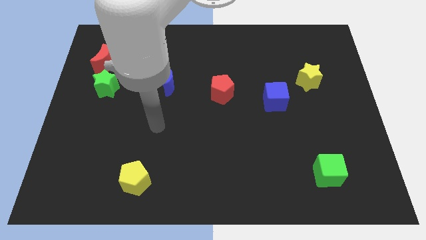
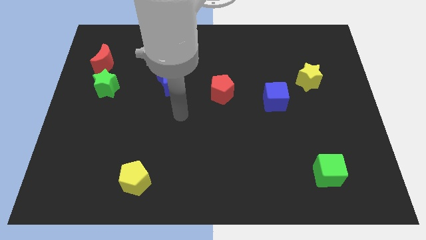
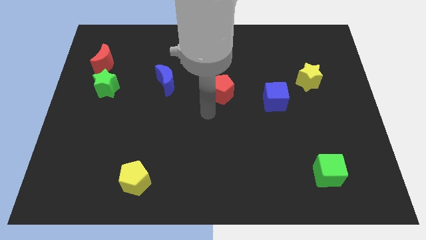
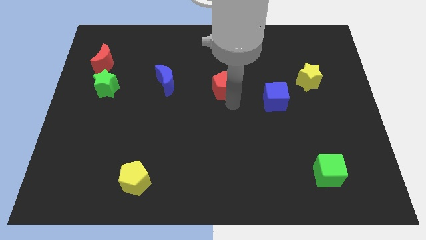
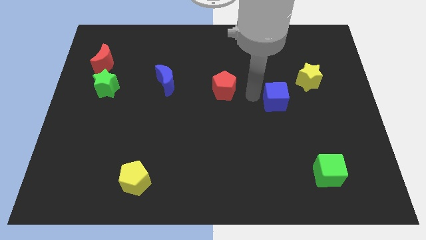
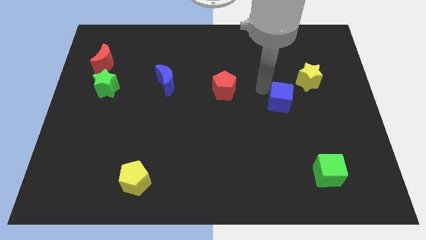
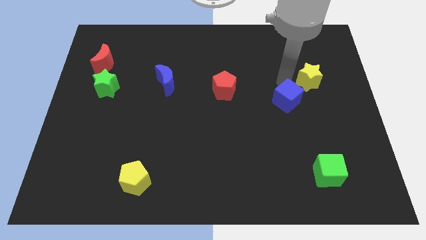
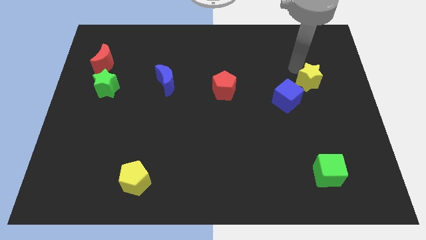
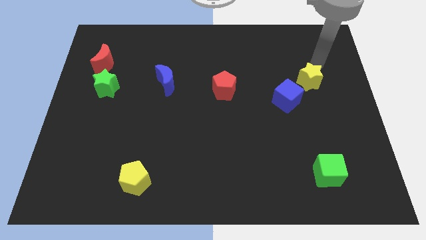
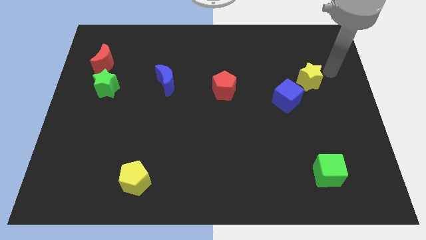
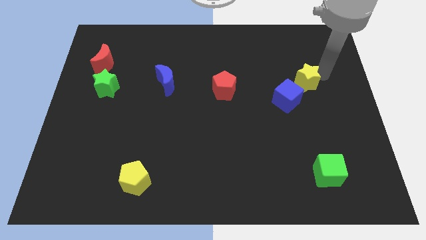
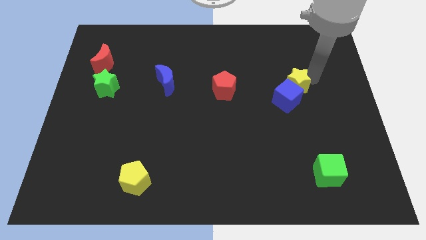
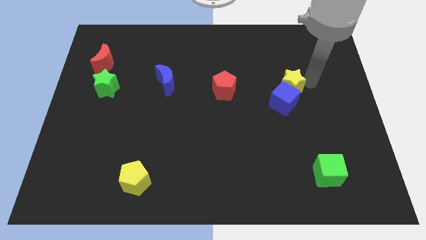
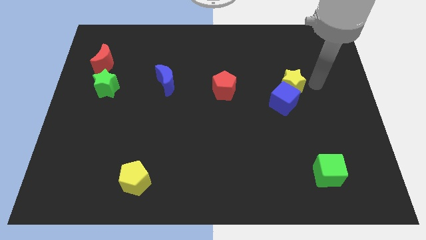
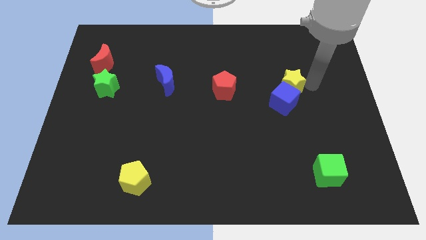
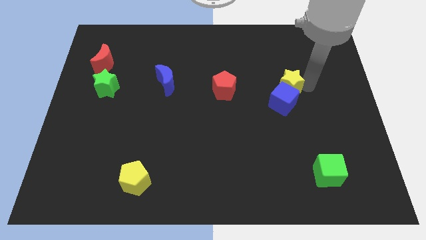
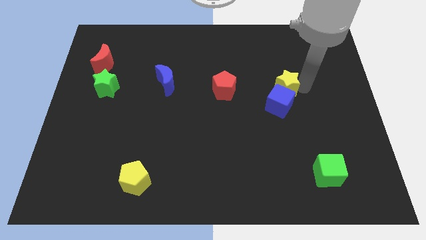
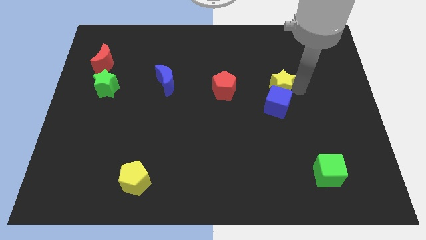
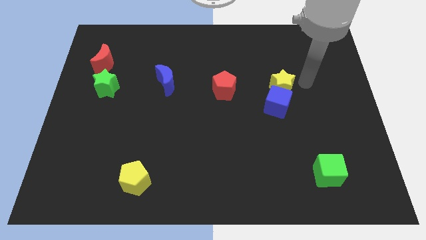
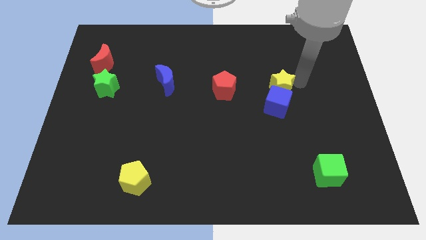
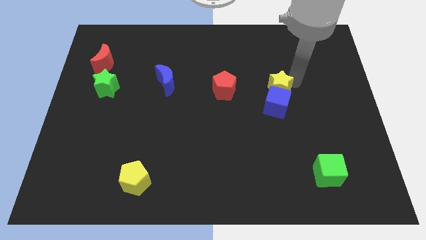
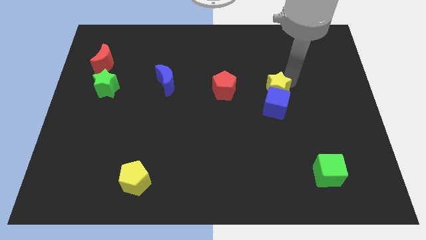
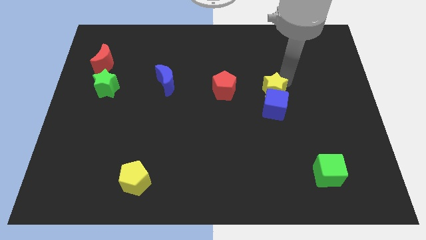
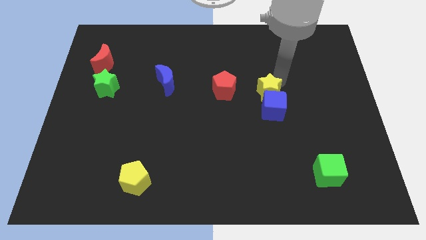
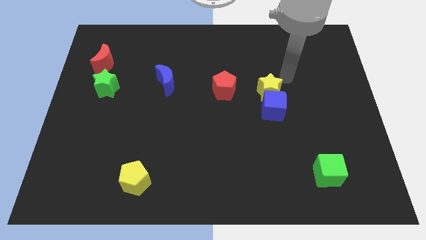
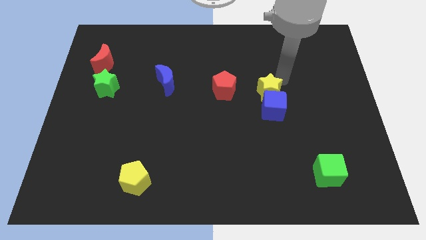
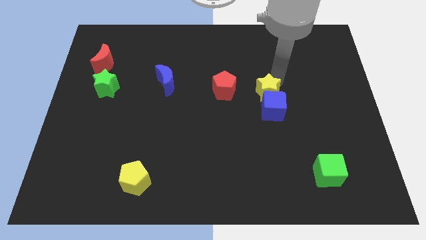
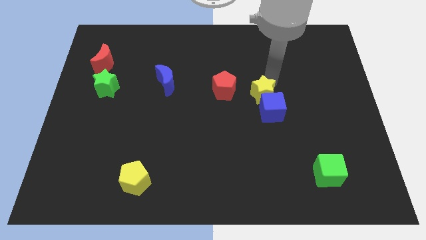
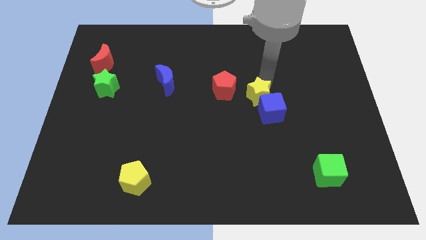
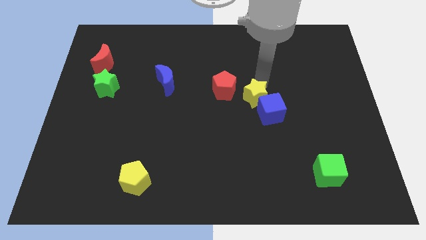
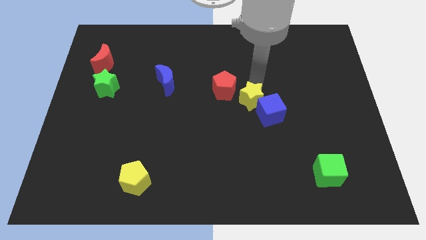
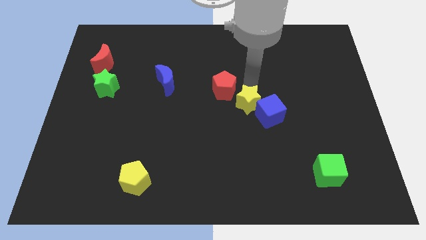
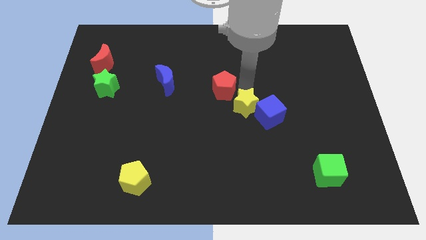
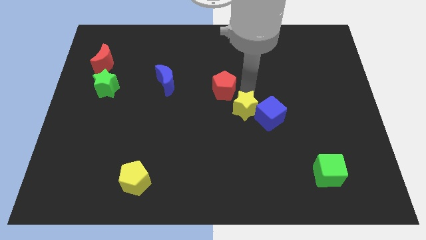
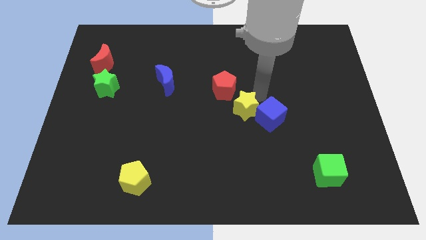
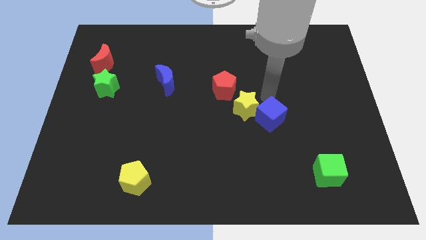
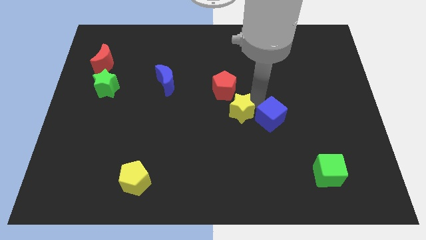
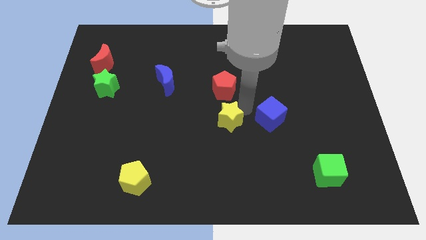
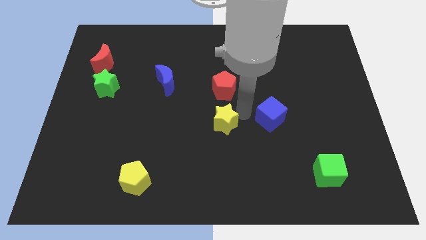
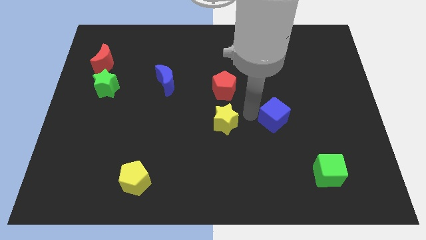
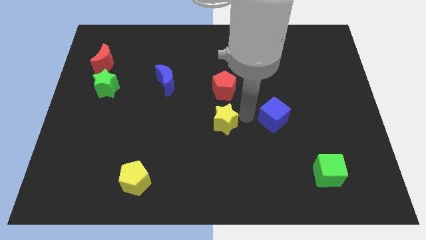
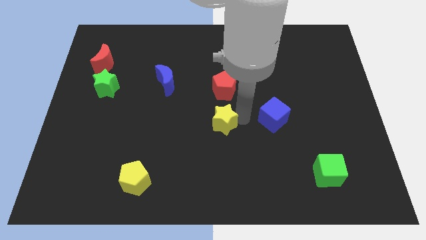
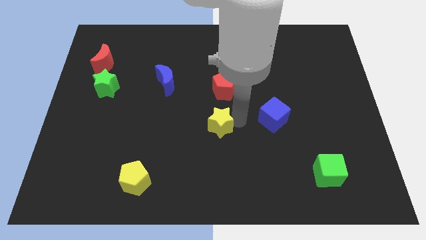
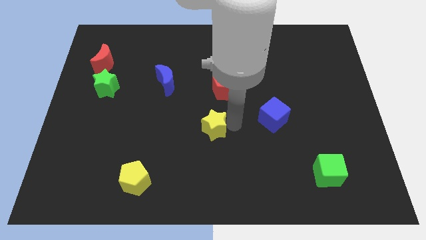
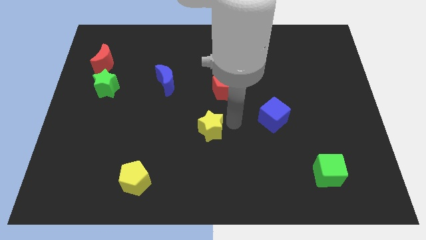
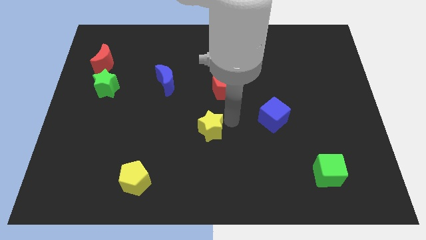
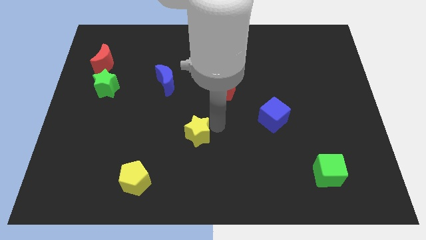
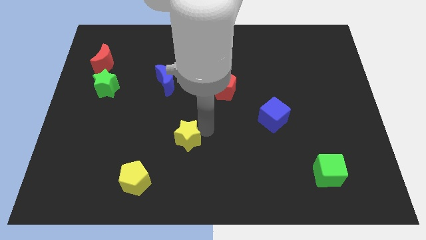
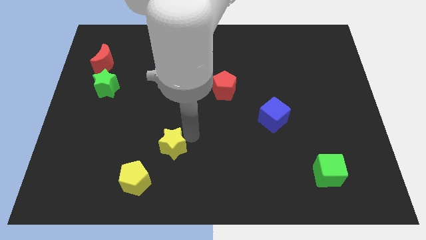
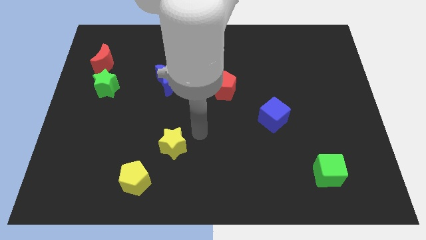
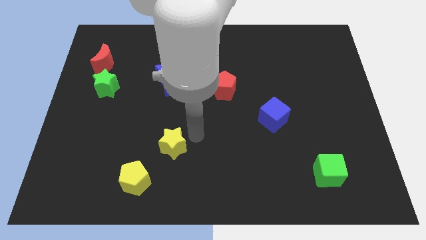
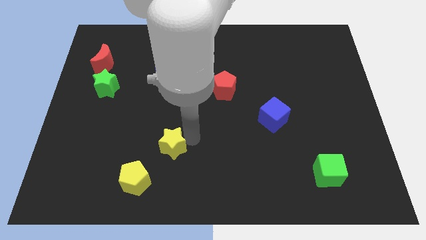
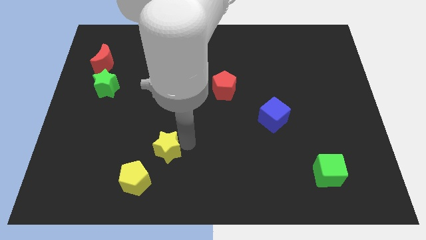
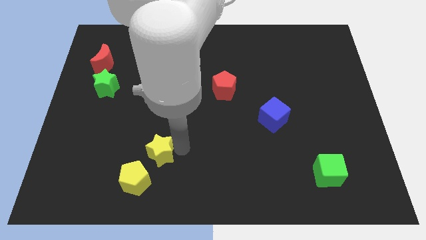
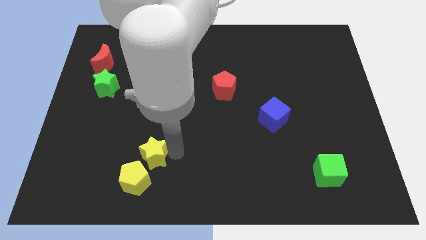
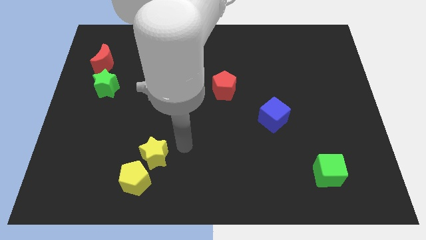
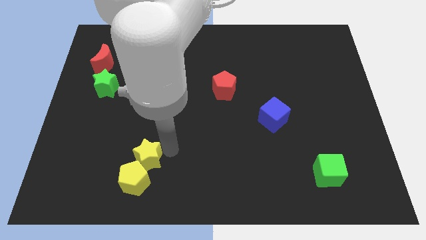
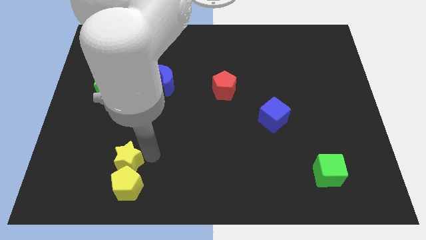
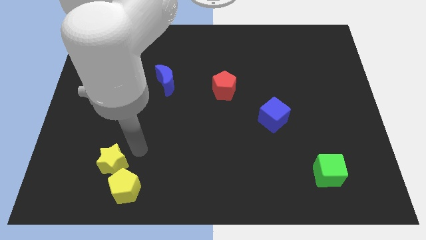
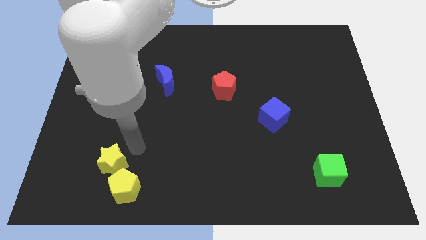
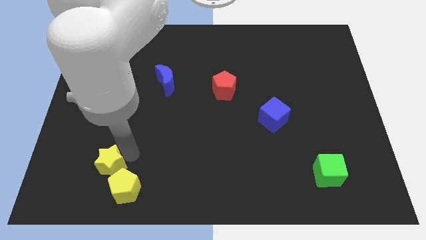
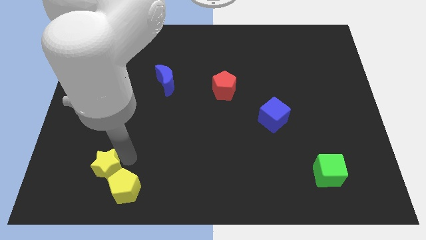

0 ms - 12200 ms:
push the yellow star to the left side of the yellow pentagon
